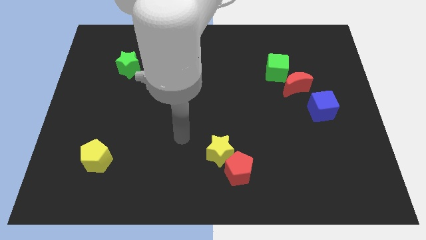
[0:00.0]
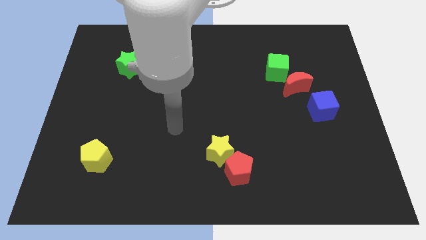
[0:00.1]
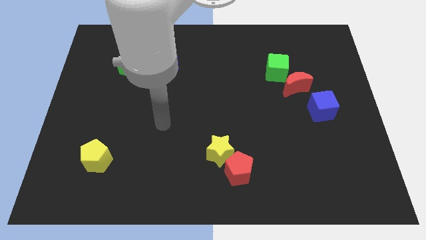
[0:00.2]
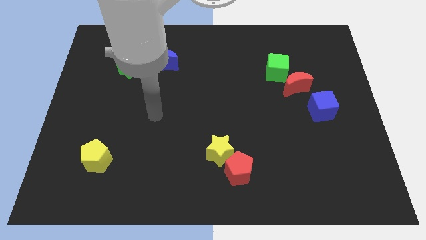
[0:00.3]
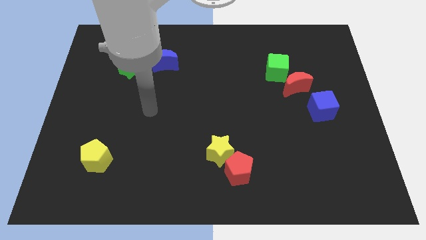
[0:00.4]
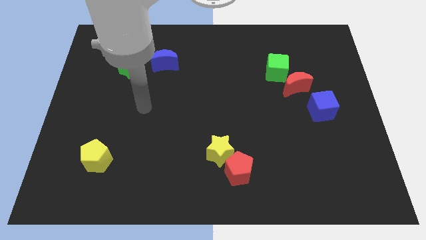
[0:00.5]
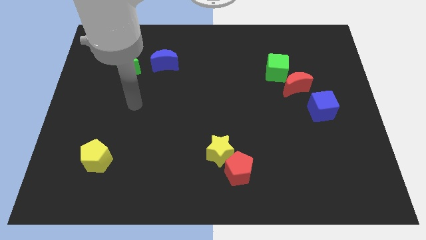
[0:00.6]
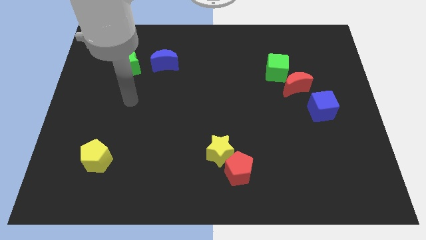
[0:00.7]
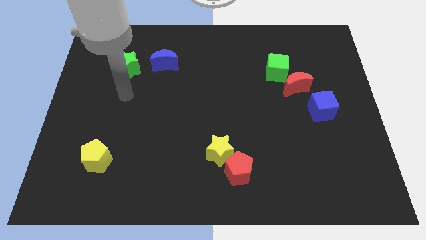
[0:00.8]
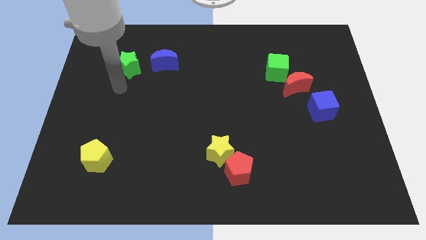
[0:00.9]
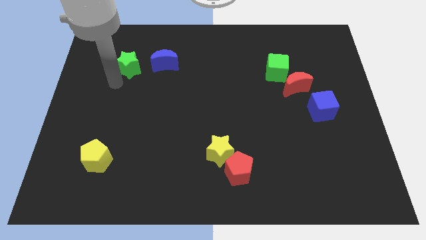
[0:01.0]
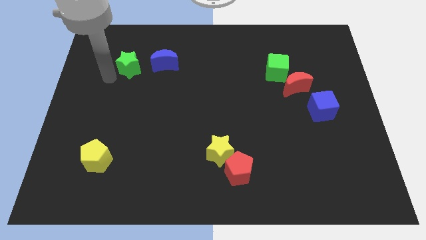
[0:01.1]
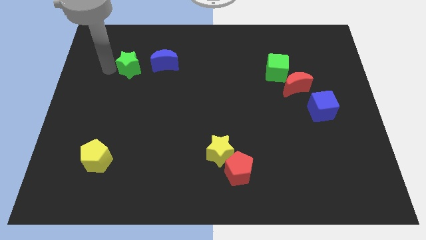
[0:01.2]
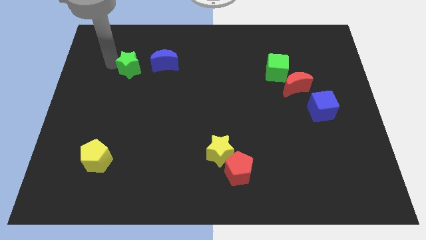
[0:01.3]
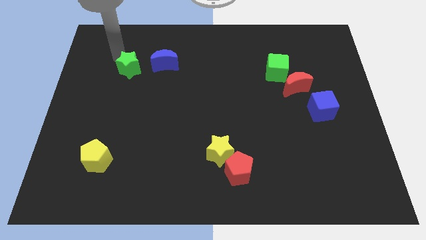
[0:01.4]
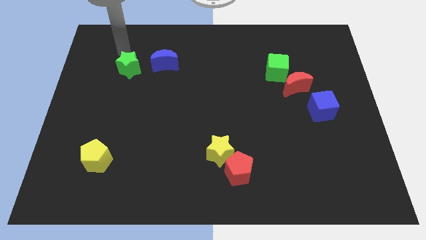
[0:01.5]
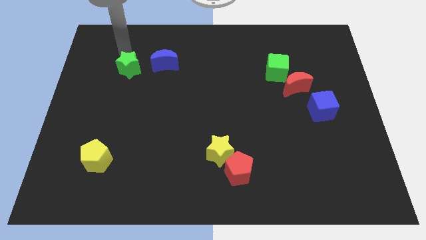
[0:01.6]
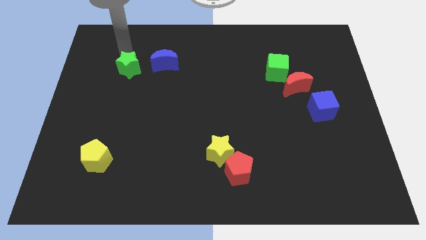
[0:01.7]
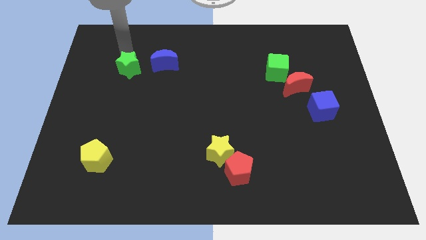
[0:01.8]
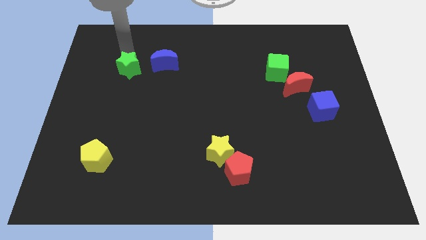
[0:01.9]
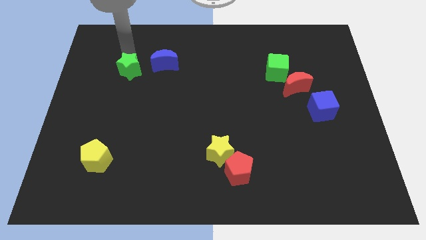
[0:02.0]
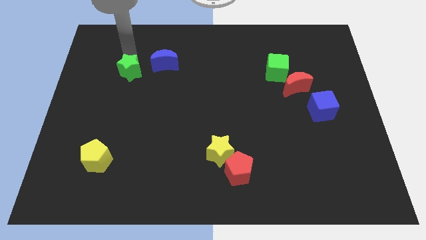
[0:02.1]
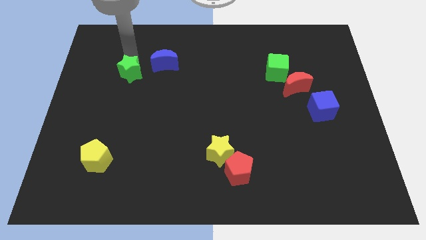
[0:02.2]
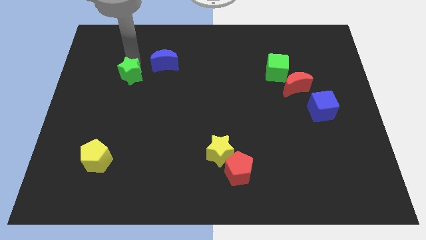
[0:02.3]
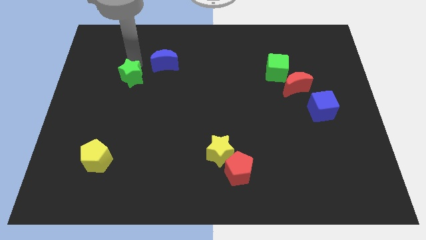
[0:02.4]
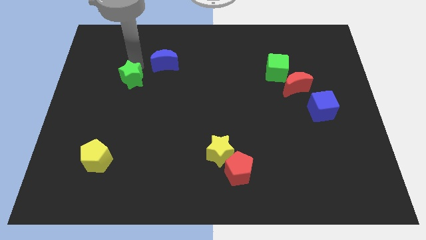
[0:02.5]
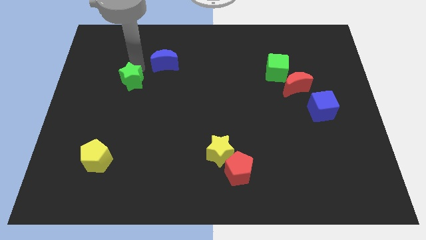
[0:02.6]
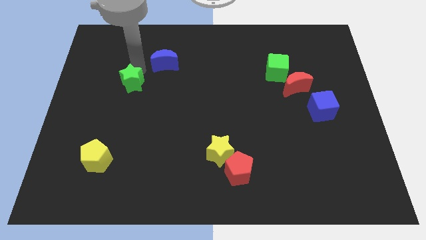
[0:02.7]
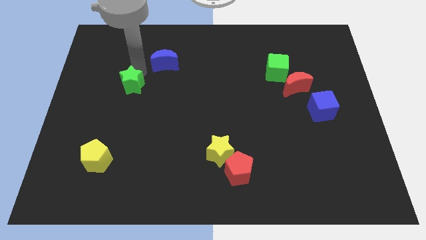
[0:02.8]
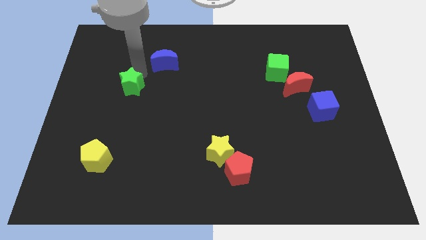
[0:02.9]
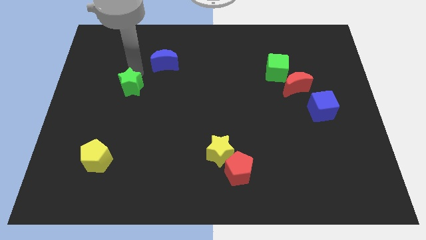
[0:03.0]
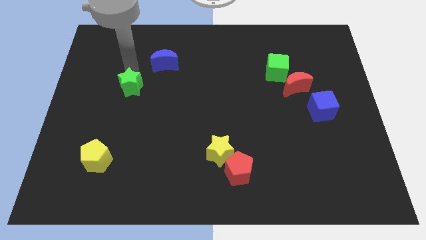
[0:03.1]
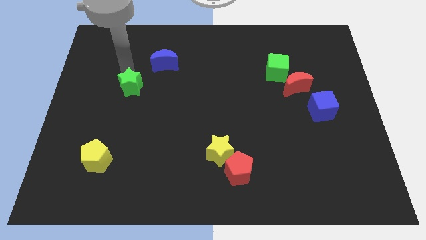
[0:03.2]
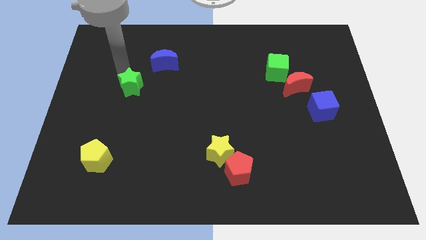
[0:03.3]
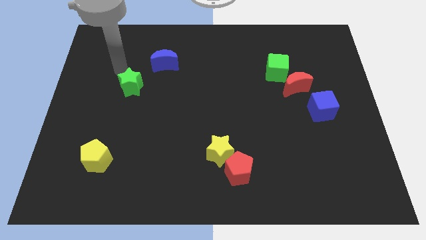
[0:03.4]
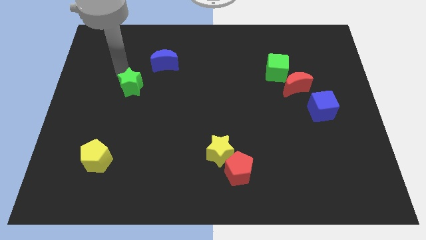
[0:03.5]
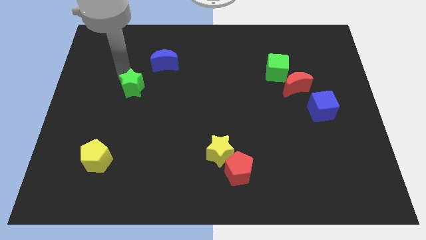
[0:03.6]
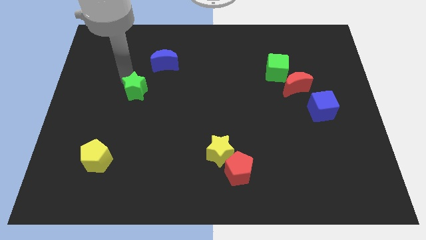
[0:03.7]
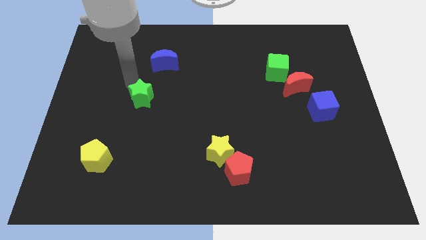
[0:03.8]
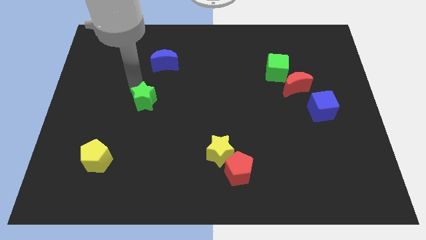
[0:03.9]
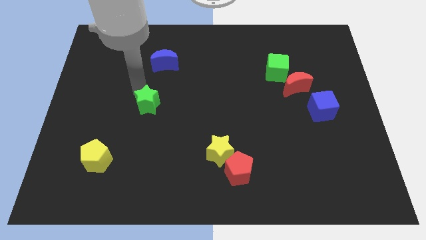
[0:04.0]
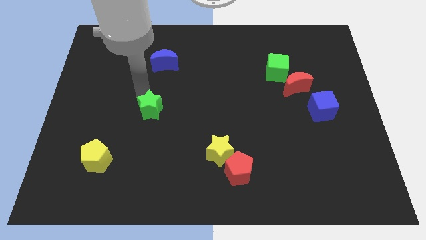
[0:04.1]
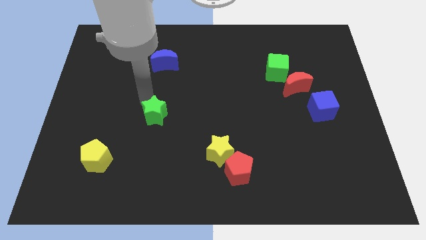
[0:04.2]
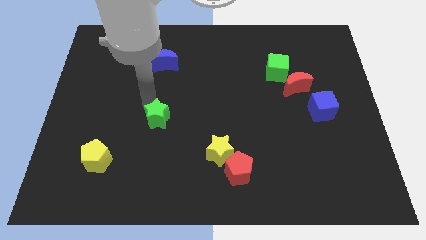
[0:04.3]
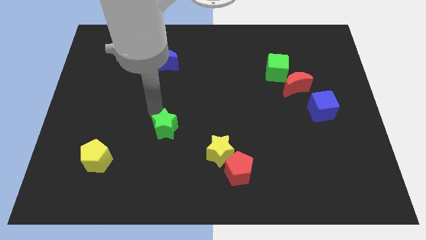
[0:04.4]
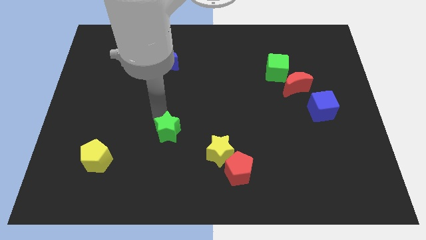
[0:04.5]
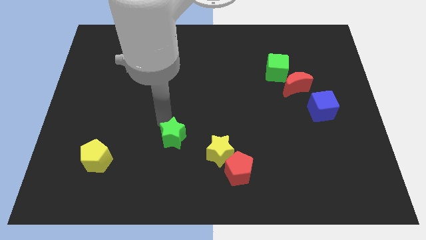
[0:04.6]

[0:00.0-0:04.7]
push the green star left of the yellow star

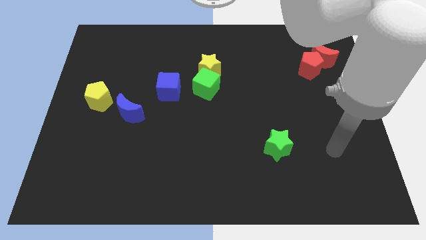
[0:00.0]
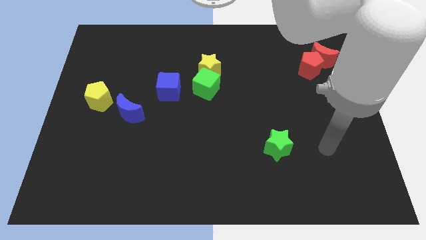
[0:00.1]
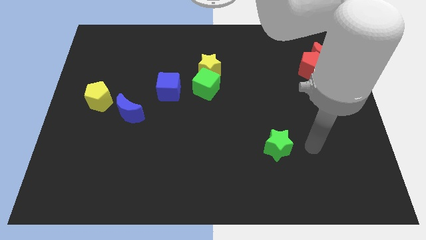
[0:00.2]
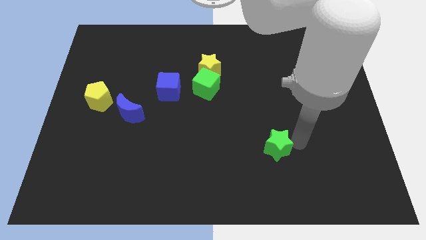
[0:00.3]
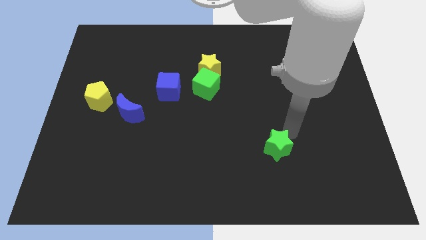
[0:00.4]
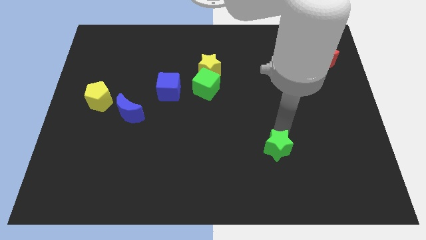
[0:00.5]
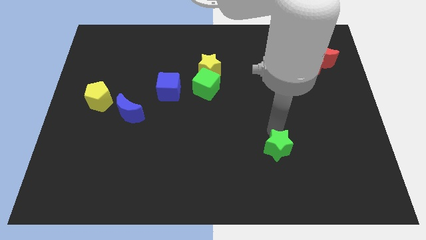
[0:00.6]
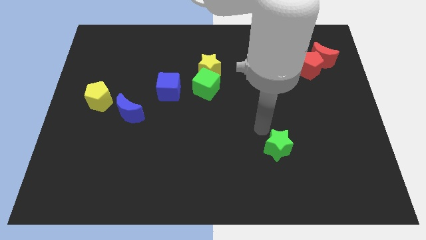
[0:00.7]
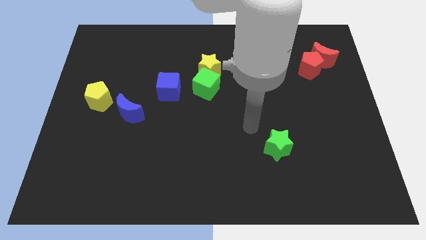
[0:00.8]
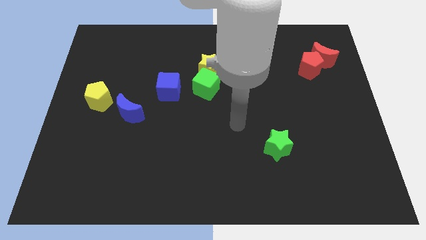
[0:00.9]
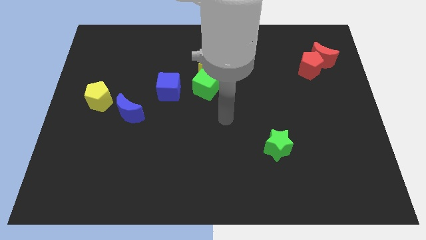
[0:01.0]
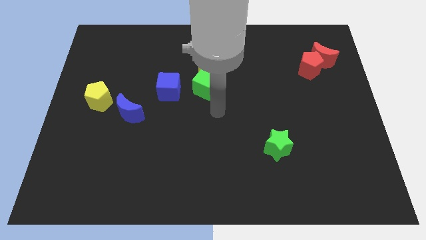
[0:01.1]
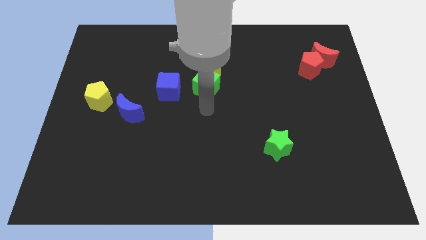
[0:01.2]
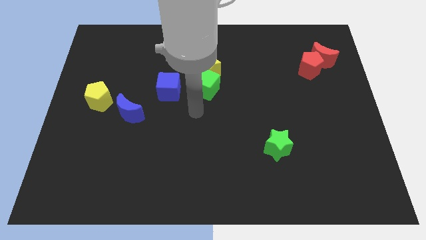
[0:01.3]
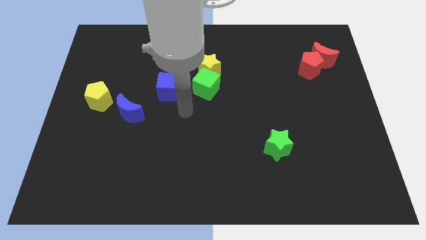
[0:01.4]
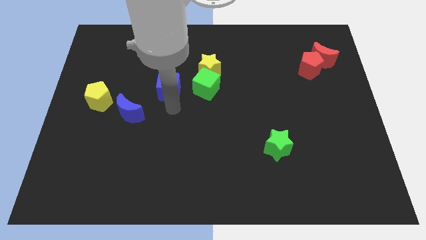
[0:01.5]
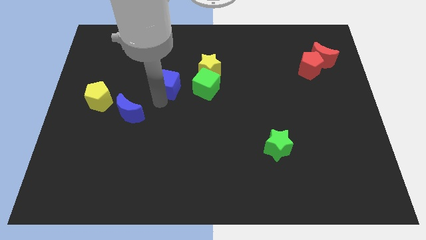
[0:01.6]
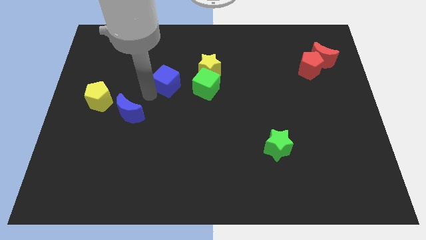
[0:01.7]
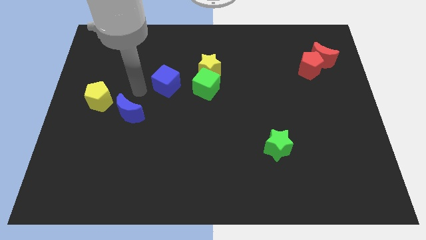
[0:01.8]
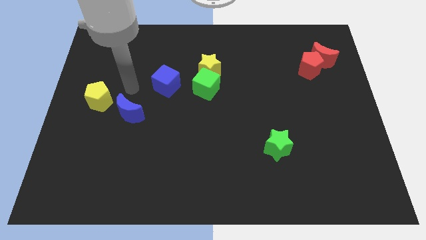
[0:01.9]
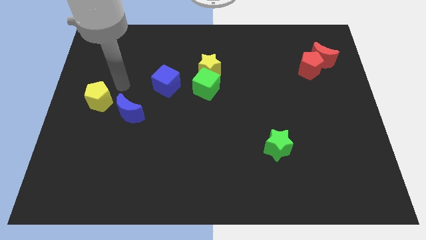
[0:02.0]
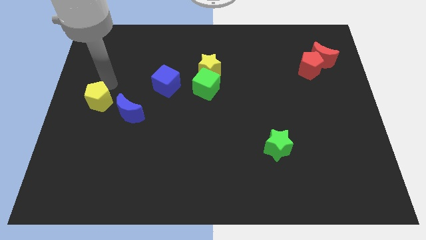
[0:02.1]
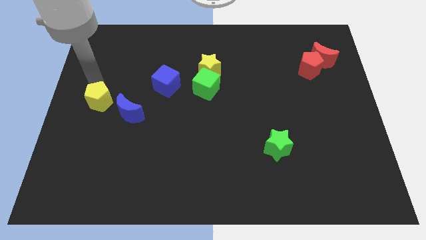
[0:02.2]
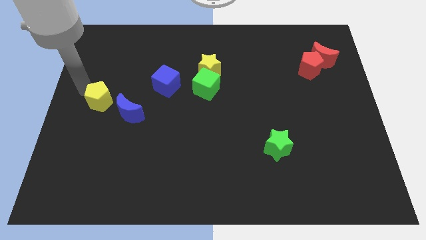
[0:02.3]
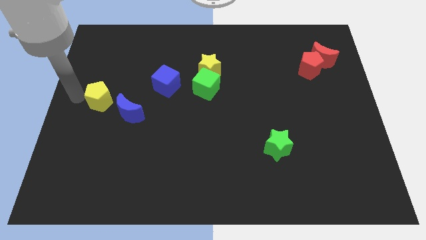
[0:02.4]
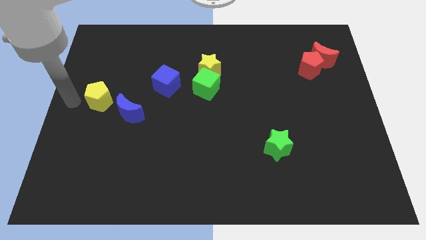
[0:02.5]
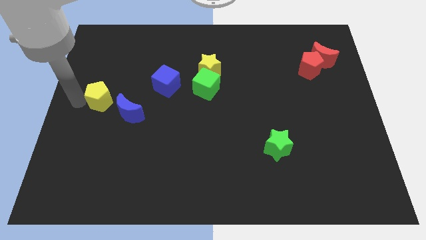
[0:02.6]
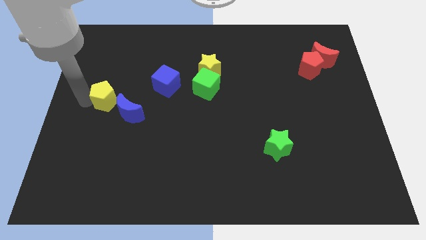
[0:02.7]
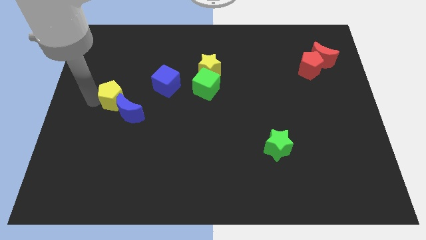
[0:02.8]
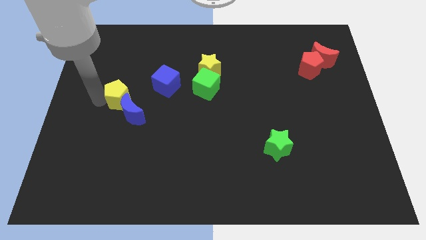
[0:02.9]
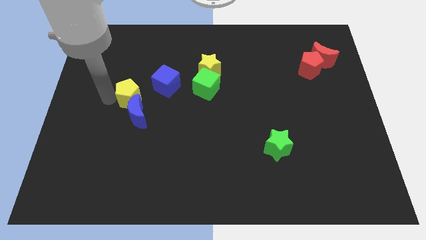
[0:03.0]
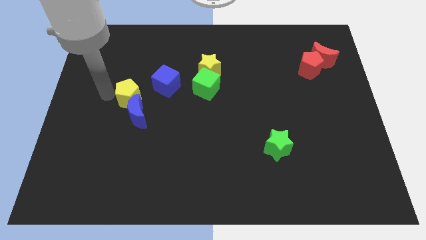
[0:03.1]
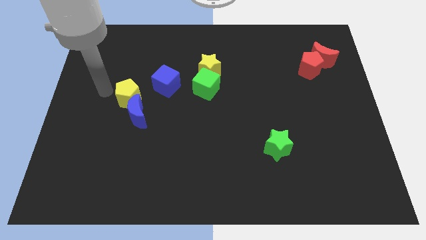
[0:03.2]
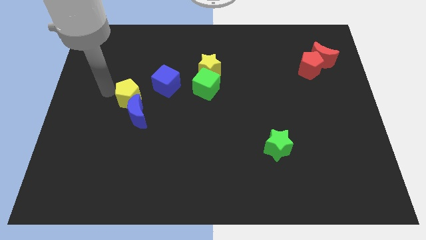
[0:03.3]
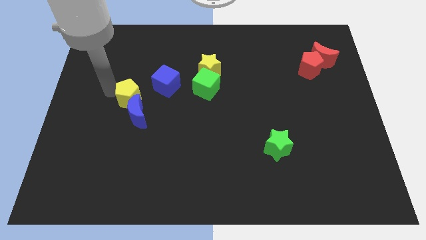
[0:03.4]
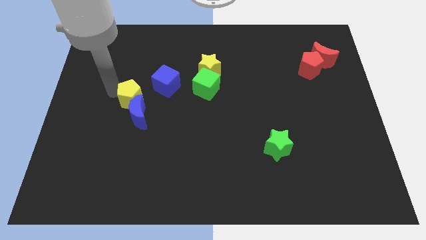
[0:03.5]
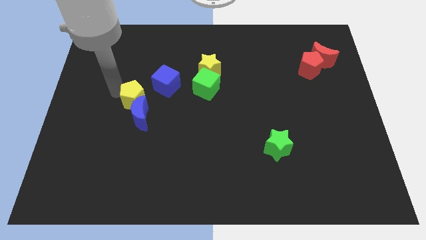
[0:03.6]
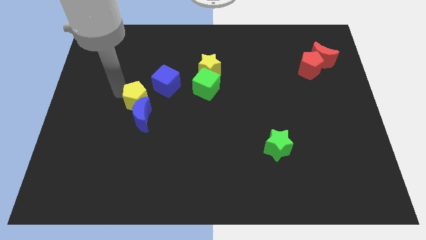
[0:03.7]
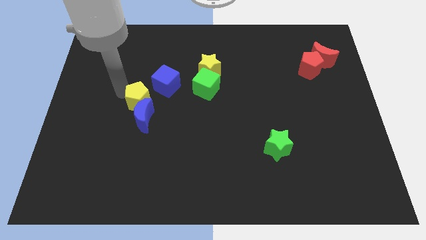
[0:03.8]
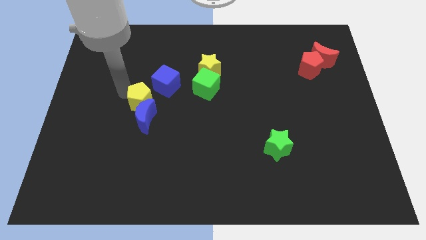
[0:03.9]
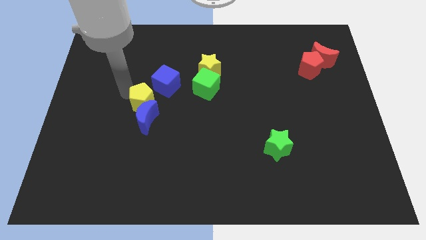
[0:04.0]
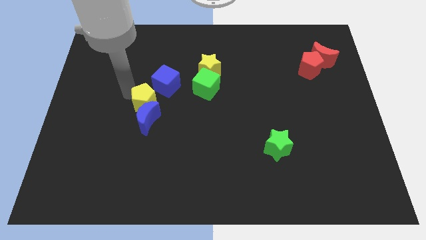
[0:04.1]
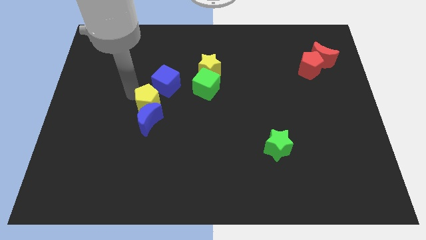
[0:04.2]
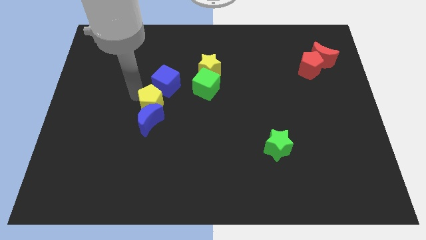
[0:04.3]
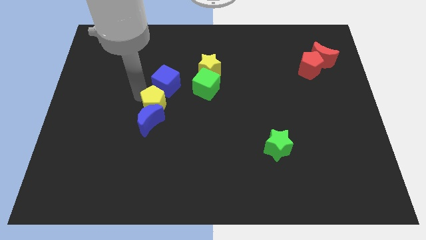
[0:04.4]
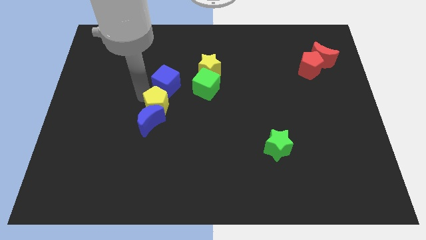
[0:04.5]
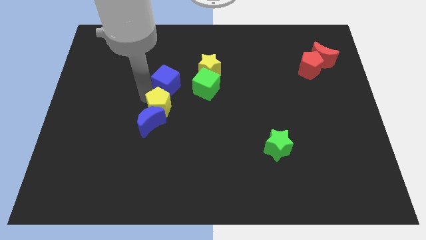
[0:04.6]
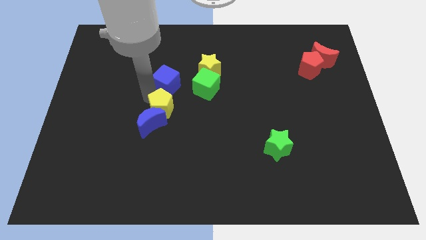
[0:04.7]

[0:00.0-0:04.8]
slide the yellow pentagon diagonally down and to the left of the green cube
